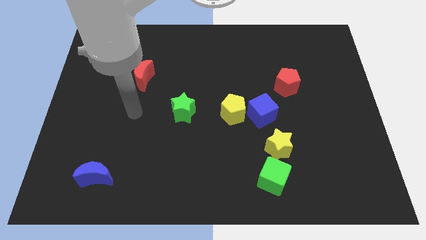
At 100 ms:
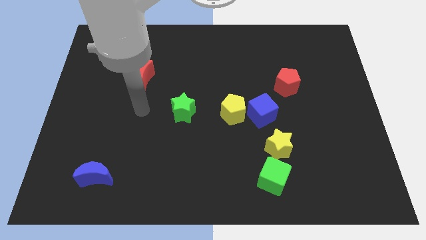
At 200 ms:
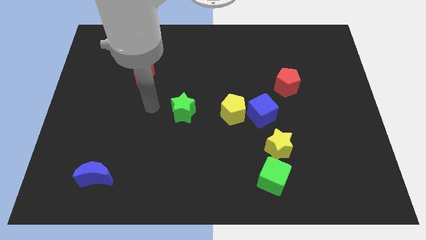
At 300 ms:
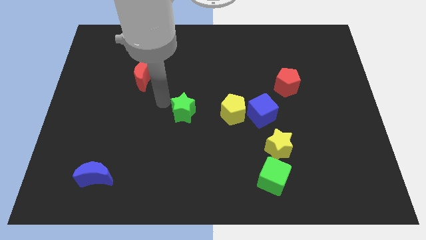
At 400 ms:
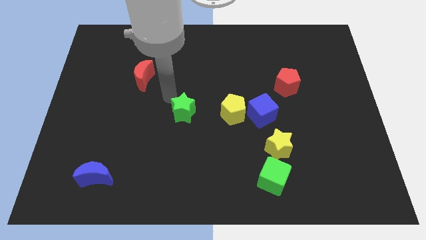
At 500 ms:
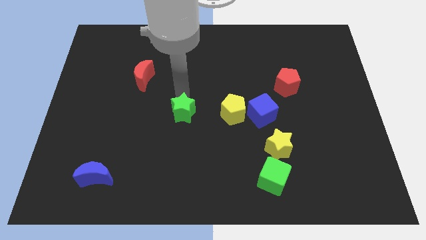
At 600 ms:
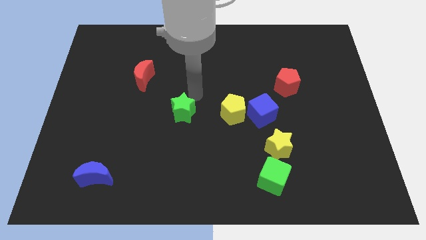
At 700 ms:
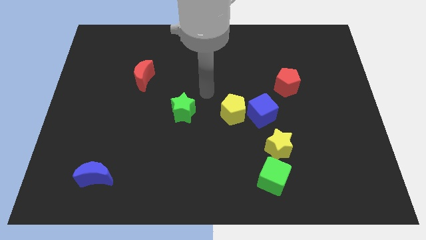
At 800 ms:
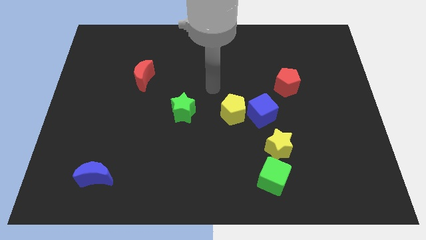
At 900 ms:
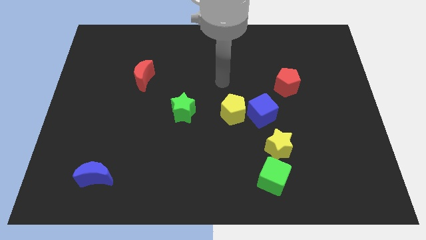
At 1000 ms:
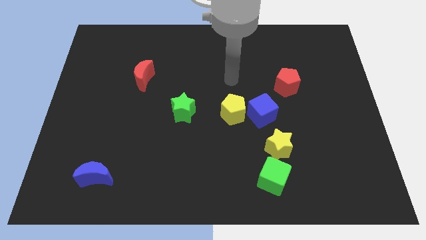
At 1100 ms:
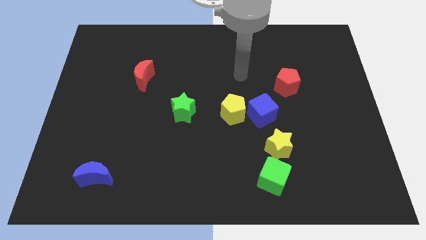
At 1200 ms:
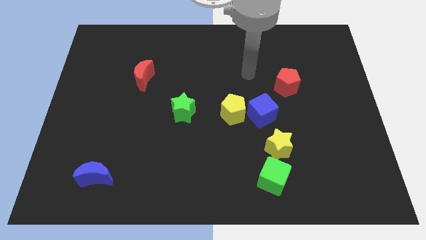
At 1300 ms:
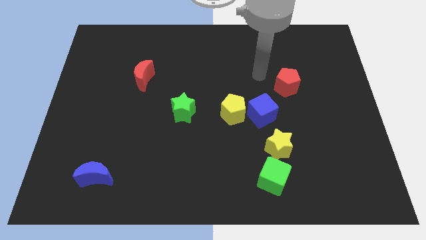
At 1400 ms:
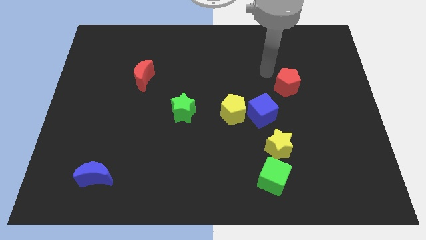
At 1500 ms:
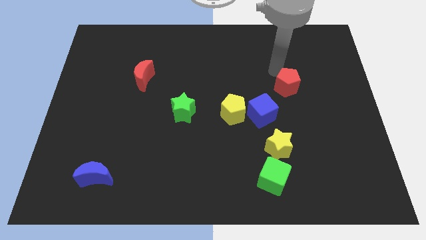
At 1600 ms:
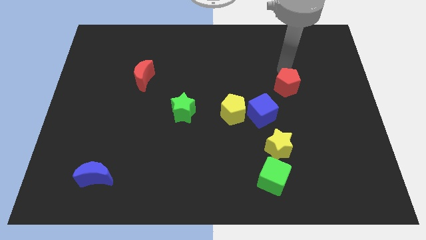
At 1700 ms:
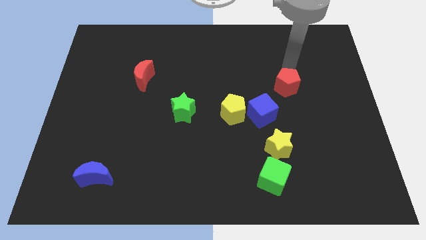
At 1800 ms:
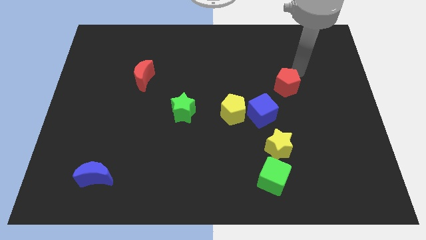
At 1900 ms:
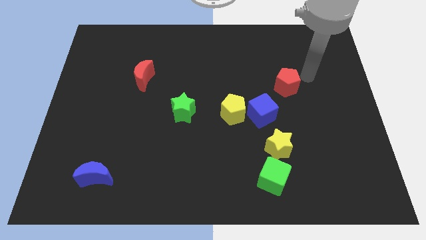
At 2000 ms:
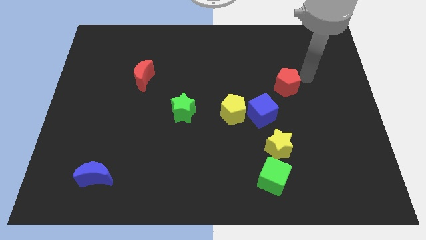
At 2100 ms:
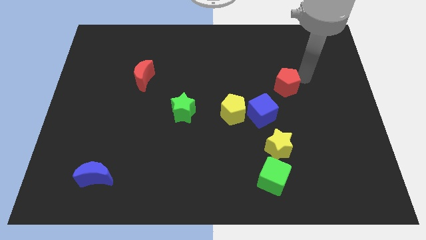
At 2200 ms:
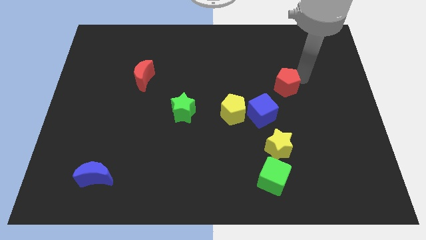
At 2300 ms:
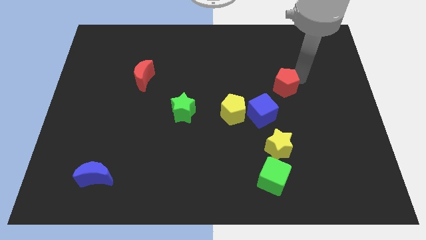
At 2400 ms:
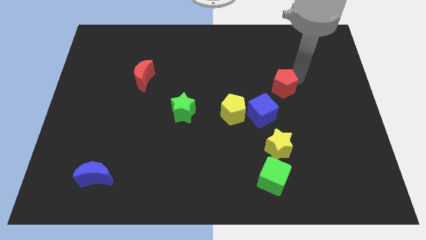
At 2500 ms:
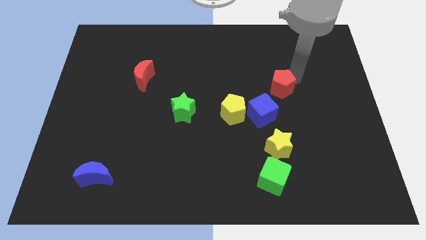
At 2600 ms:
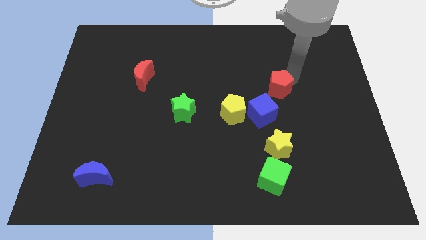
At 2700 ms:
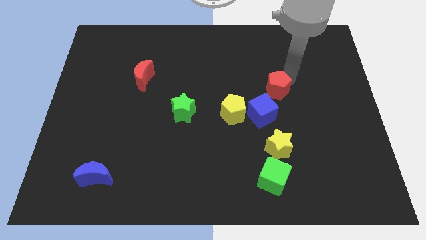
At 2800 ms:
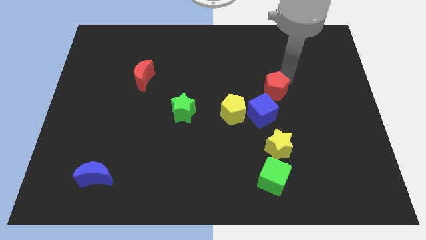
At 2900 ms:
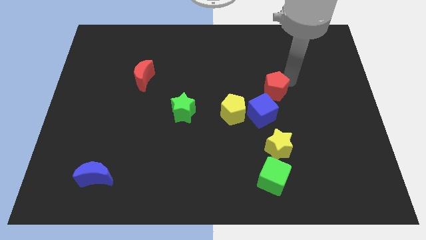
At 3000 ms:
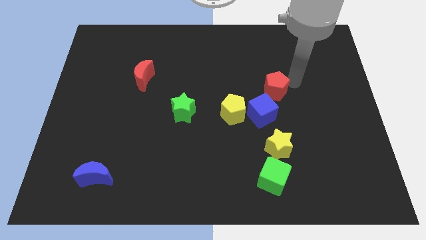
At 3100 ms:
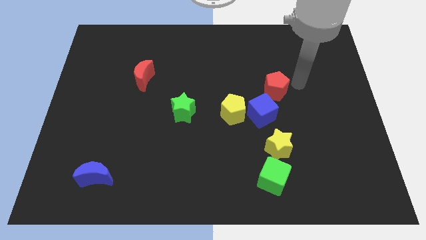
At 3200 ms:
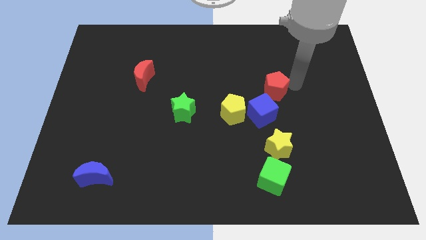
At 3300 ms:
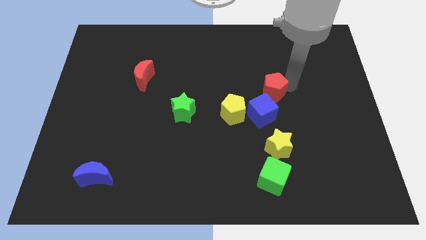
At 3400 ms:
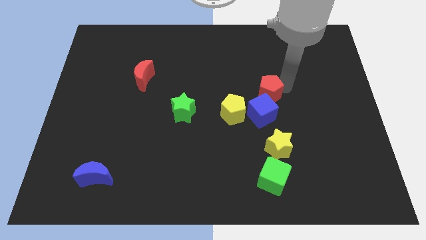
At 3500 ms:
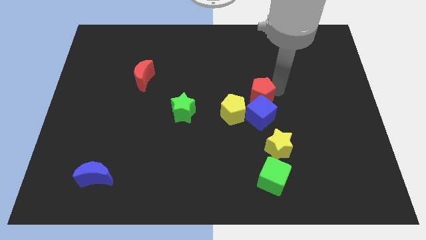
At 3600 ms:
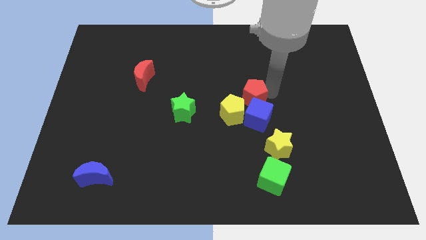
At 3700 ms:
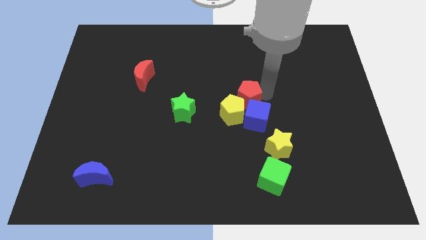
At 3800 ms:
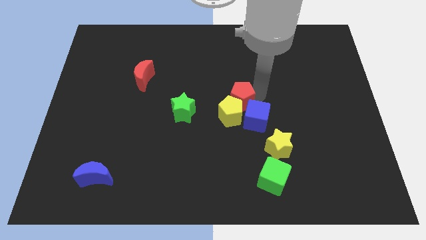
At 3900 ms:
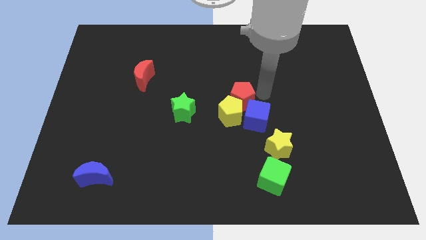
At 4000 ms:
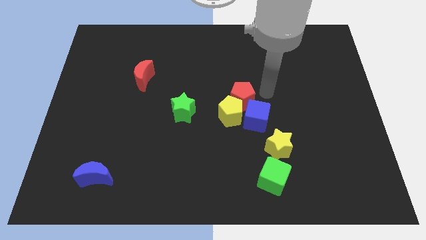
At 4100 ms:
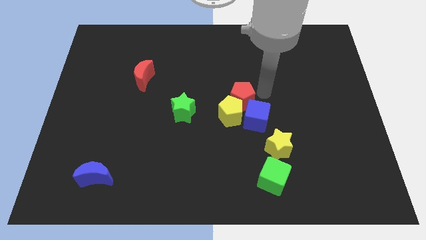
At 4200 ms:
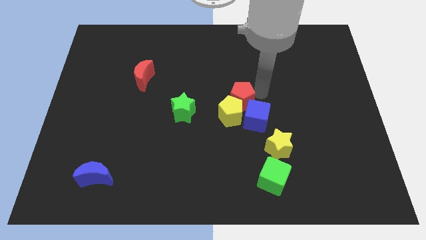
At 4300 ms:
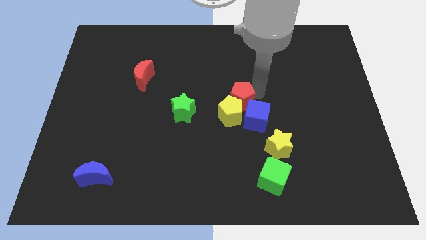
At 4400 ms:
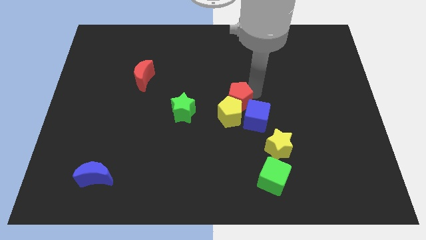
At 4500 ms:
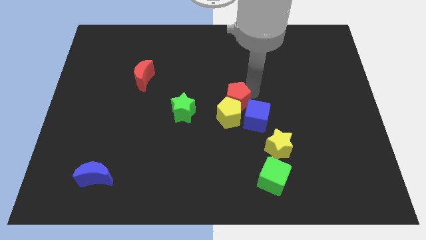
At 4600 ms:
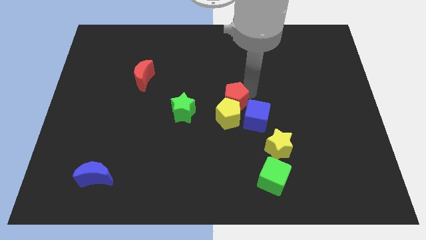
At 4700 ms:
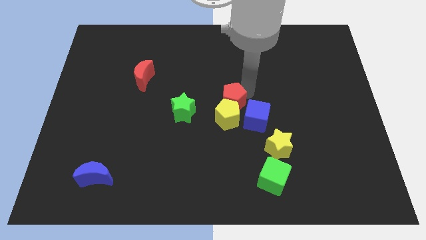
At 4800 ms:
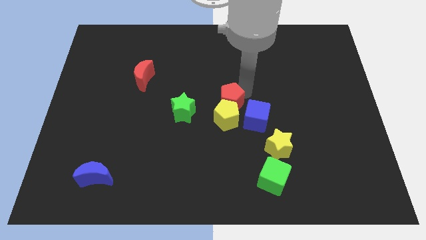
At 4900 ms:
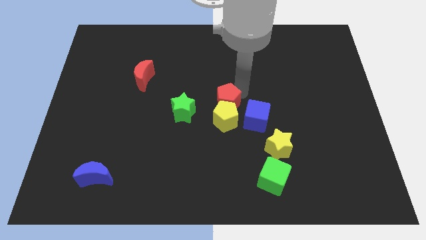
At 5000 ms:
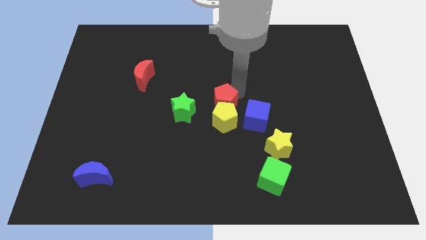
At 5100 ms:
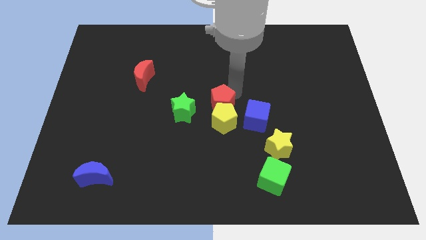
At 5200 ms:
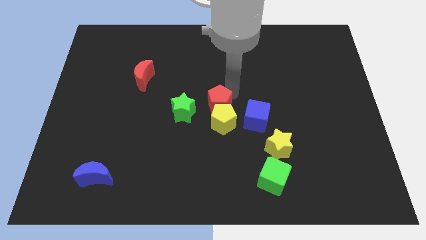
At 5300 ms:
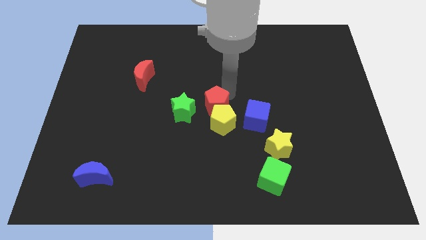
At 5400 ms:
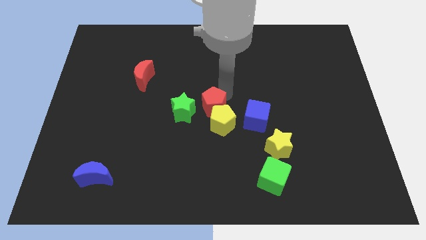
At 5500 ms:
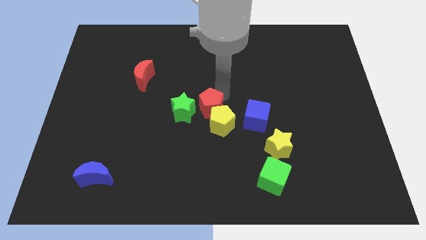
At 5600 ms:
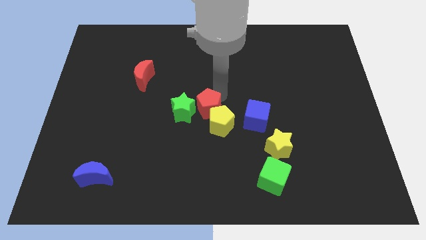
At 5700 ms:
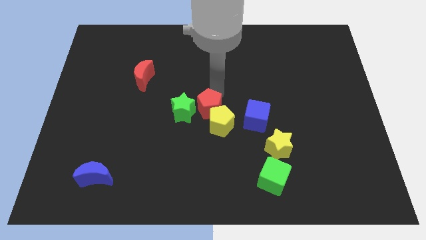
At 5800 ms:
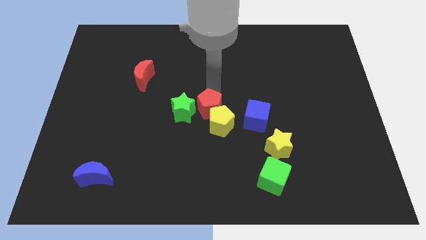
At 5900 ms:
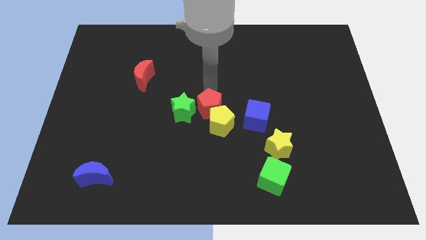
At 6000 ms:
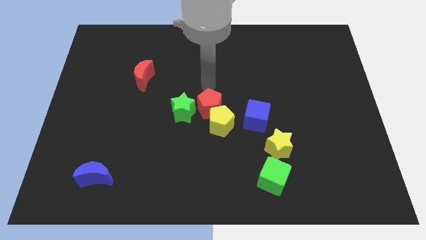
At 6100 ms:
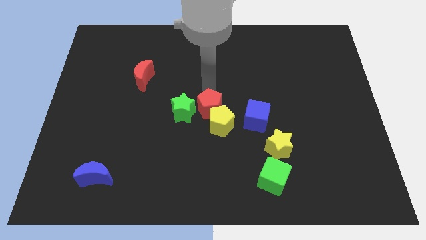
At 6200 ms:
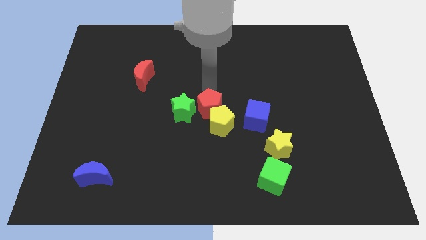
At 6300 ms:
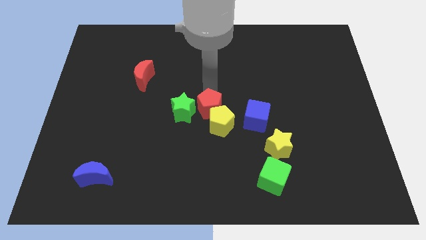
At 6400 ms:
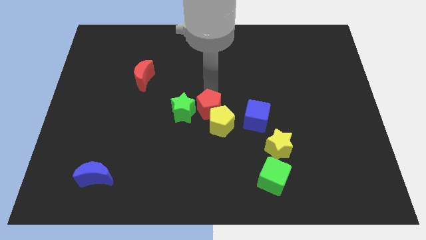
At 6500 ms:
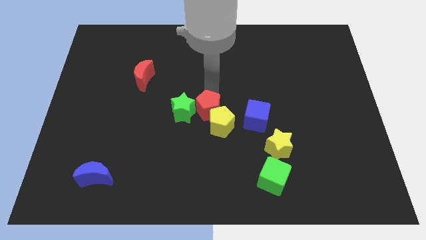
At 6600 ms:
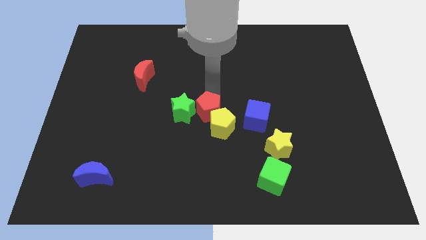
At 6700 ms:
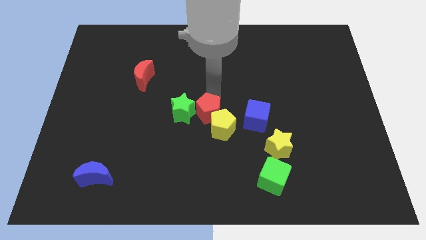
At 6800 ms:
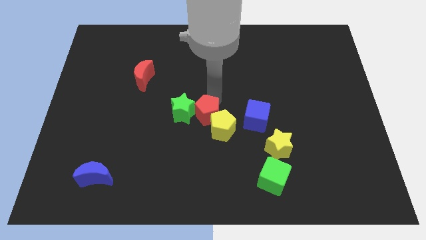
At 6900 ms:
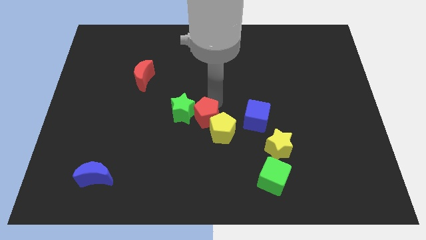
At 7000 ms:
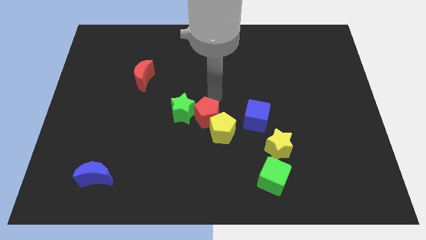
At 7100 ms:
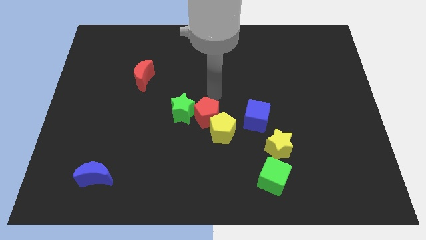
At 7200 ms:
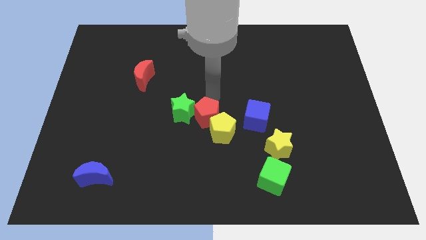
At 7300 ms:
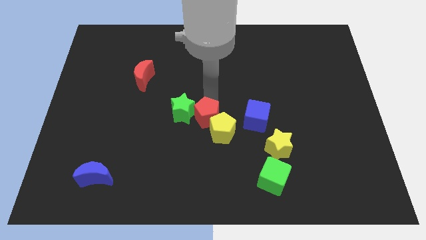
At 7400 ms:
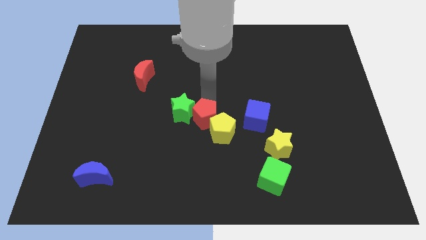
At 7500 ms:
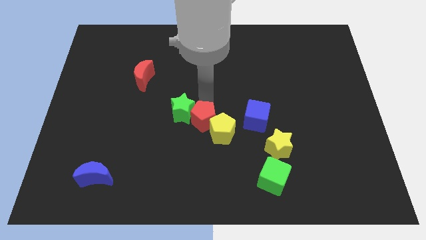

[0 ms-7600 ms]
move the red pentagon downwards and left

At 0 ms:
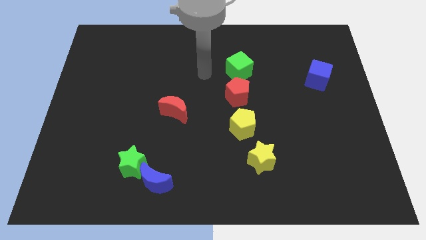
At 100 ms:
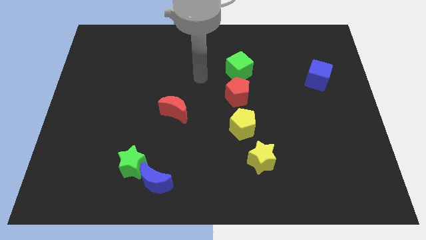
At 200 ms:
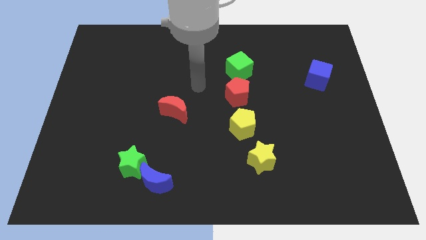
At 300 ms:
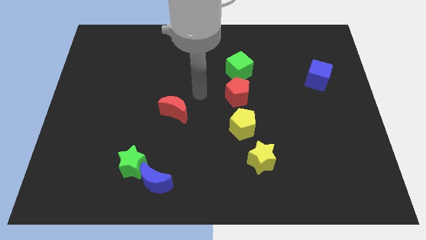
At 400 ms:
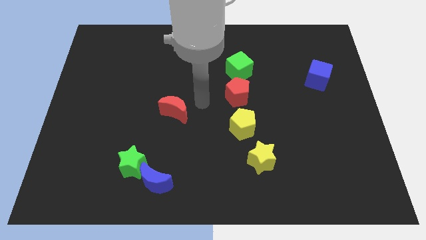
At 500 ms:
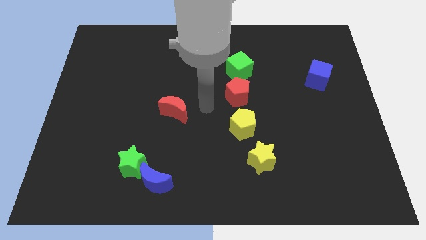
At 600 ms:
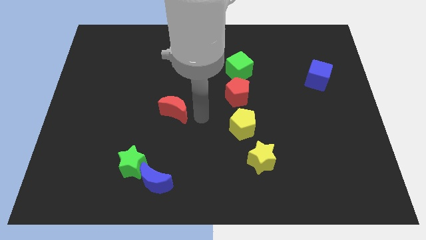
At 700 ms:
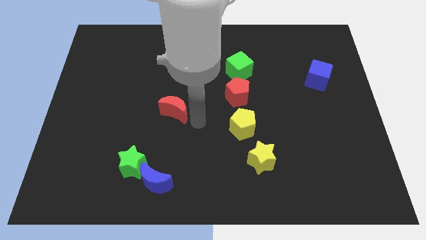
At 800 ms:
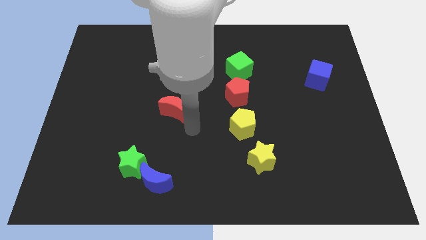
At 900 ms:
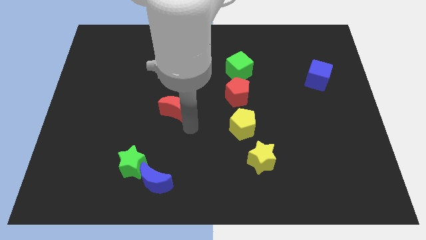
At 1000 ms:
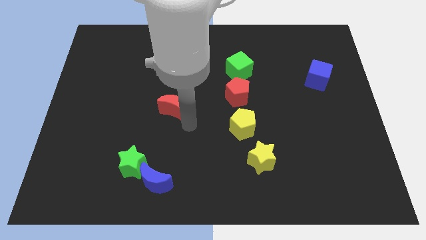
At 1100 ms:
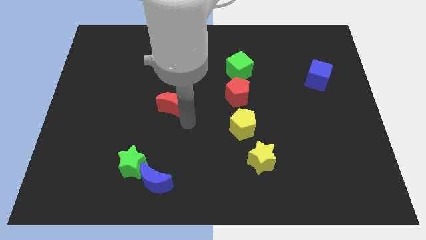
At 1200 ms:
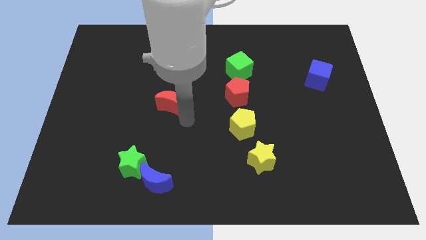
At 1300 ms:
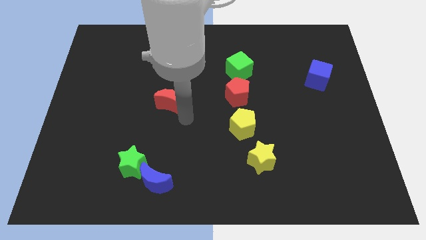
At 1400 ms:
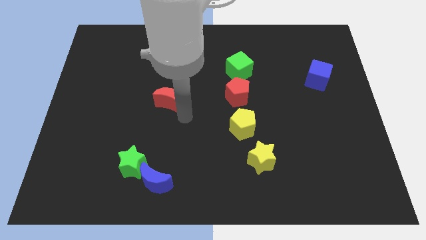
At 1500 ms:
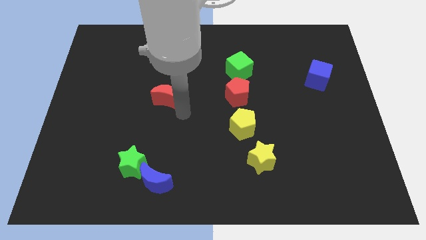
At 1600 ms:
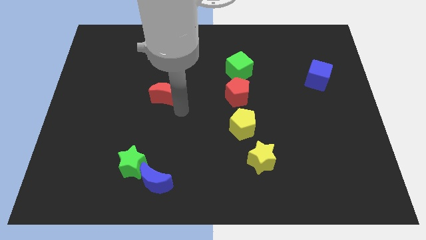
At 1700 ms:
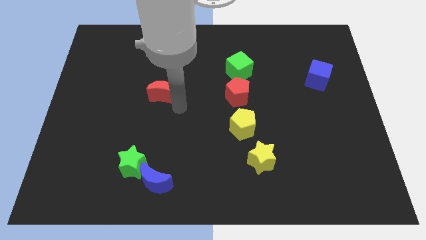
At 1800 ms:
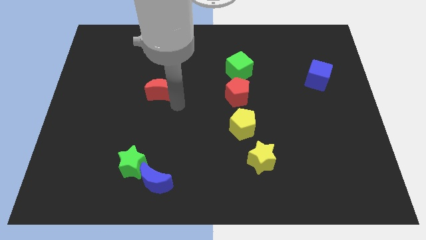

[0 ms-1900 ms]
slide the red moon upwards and to the left diagonally a bit
